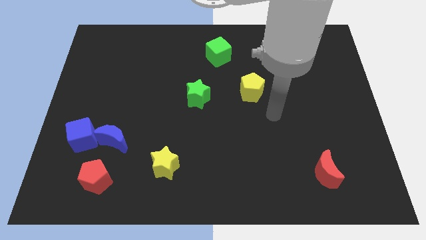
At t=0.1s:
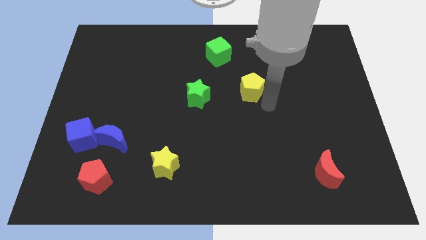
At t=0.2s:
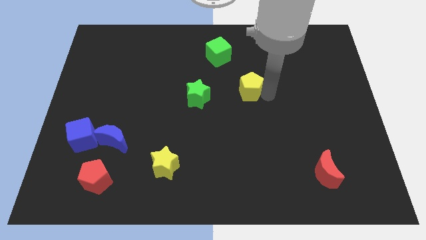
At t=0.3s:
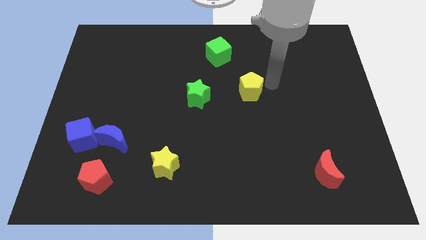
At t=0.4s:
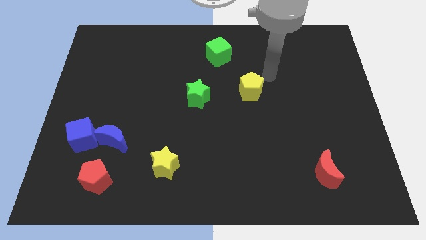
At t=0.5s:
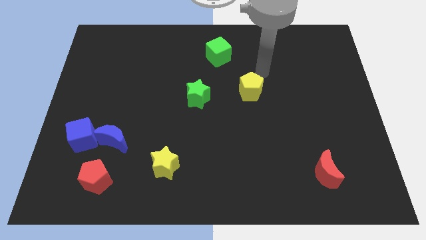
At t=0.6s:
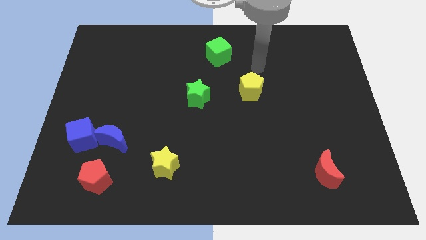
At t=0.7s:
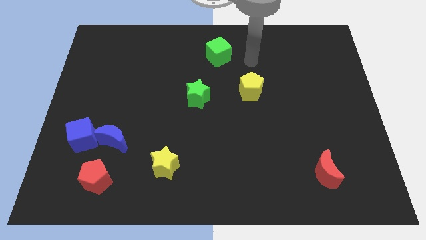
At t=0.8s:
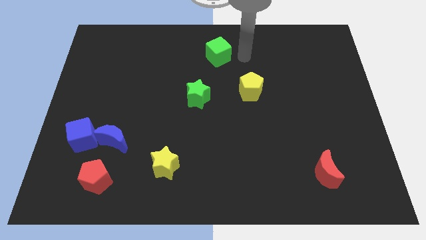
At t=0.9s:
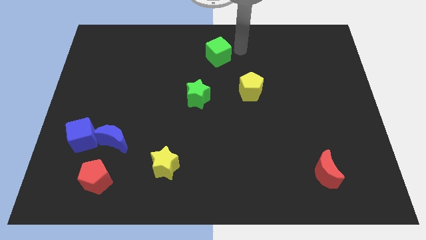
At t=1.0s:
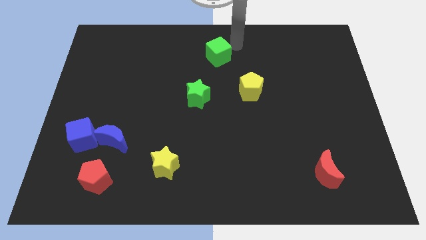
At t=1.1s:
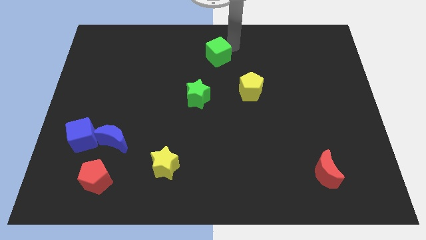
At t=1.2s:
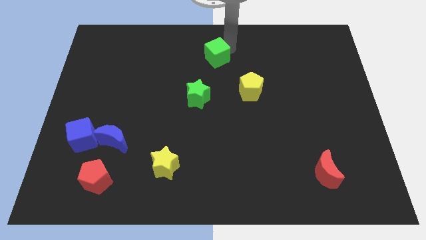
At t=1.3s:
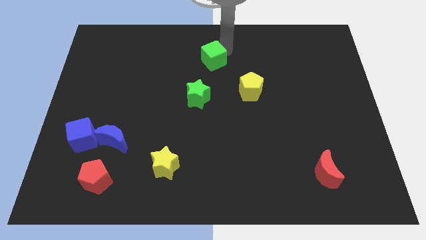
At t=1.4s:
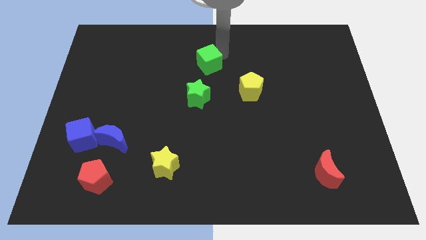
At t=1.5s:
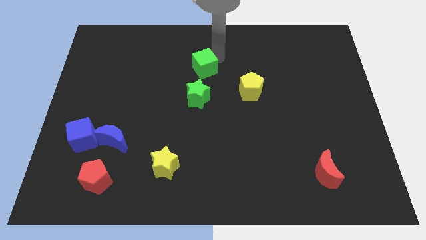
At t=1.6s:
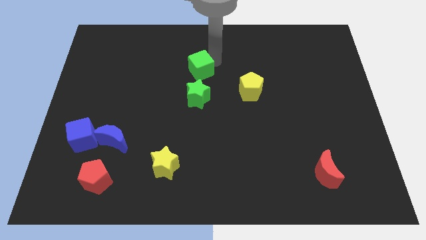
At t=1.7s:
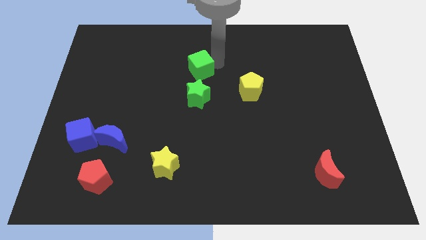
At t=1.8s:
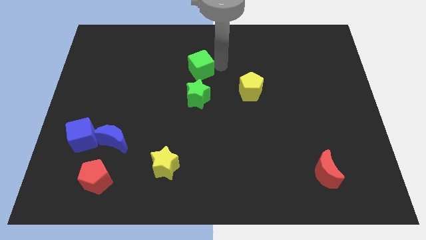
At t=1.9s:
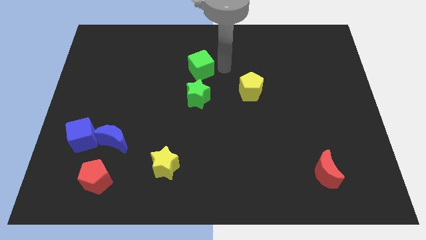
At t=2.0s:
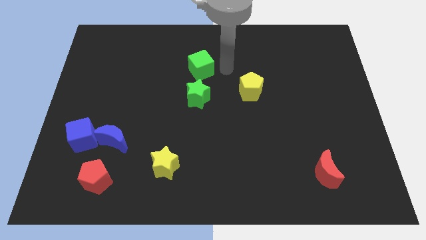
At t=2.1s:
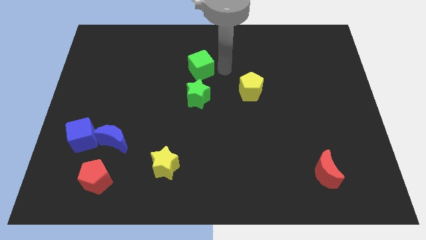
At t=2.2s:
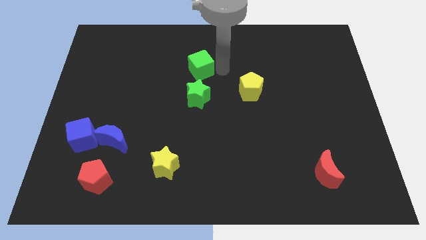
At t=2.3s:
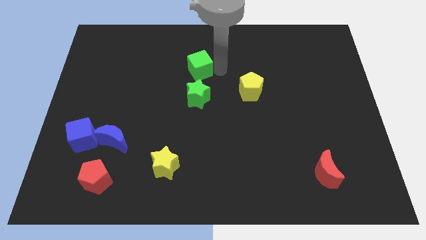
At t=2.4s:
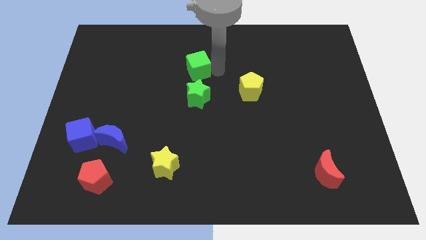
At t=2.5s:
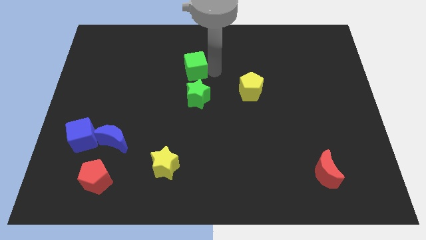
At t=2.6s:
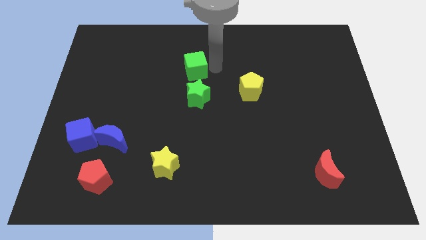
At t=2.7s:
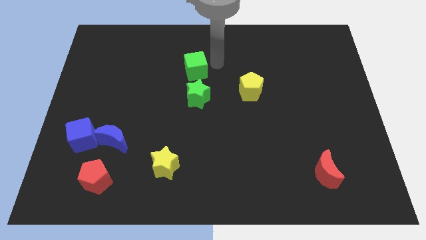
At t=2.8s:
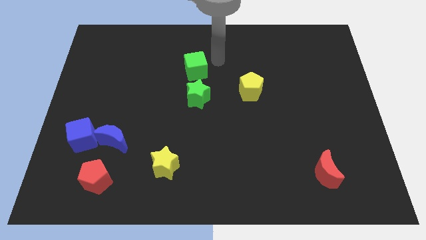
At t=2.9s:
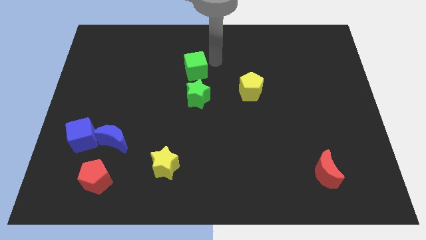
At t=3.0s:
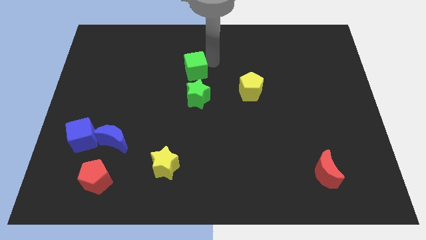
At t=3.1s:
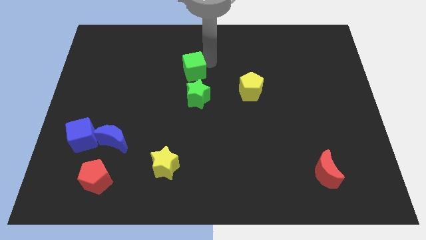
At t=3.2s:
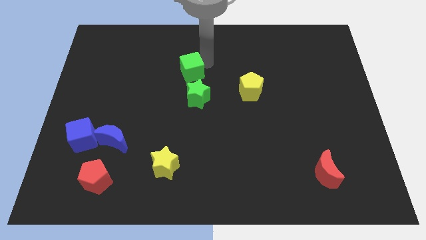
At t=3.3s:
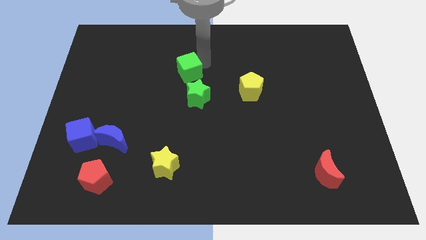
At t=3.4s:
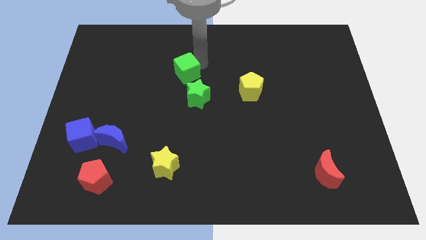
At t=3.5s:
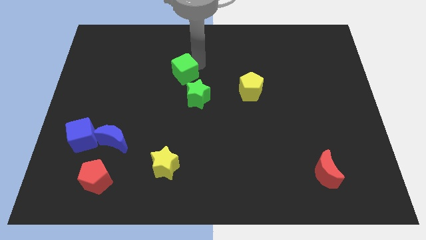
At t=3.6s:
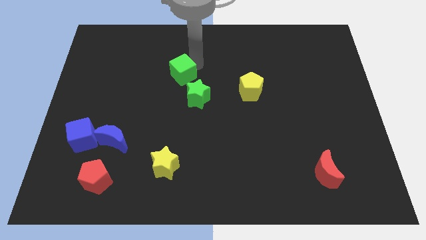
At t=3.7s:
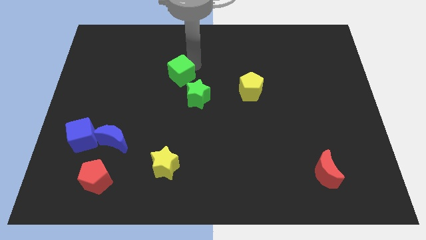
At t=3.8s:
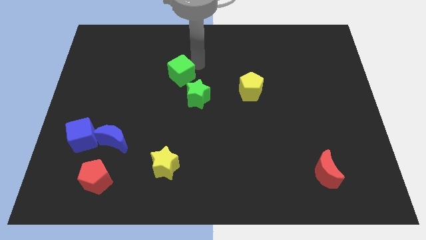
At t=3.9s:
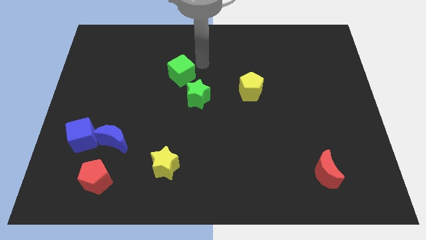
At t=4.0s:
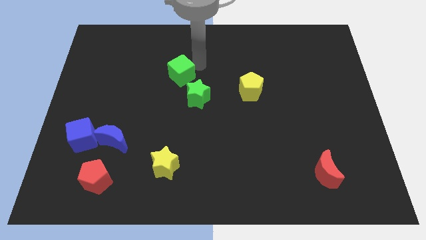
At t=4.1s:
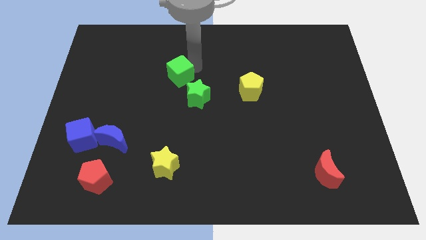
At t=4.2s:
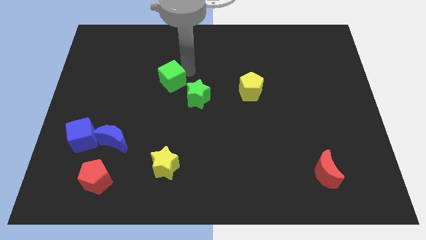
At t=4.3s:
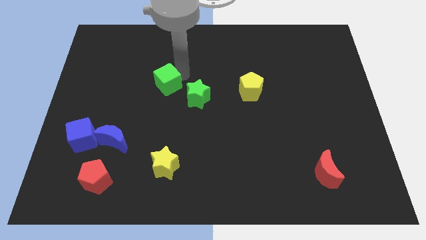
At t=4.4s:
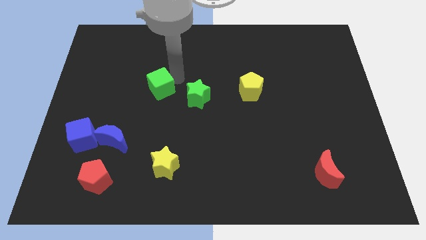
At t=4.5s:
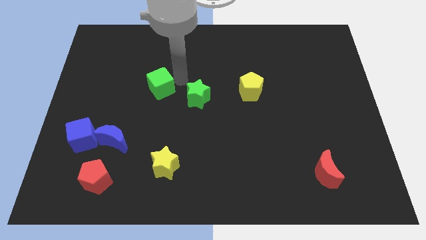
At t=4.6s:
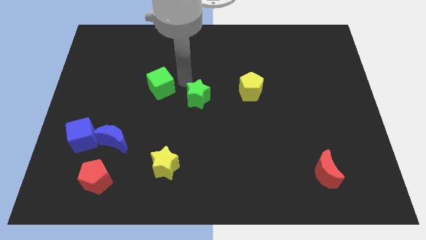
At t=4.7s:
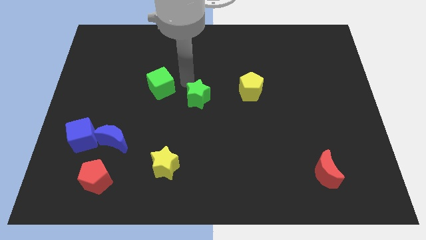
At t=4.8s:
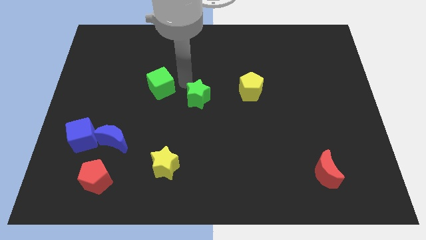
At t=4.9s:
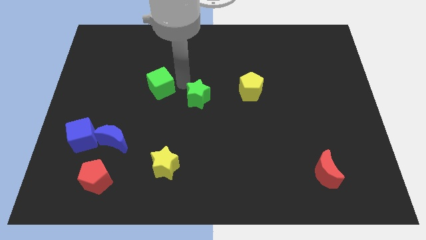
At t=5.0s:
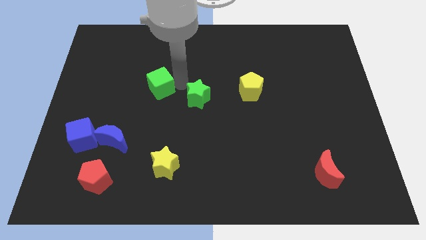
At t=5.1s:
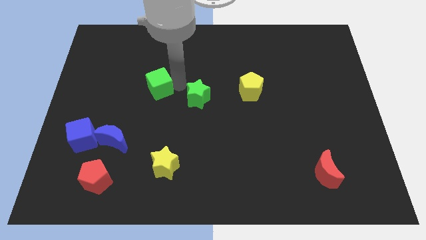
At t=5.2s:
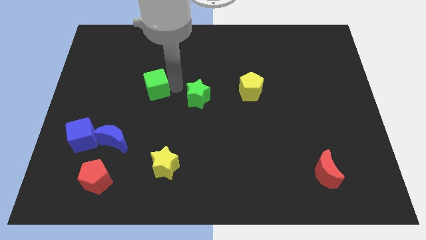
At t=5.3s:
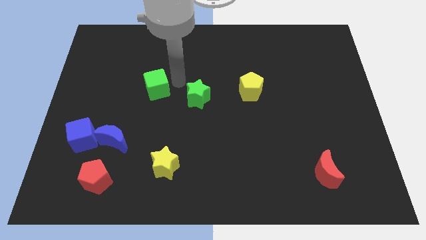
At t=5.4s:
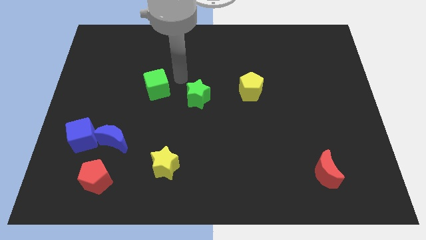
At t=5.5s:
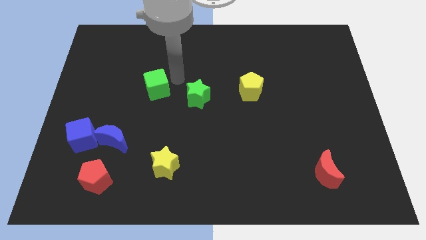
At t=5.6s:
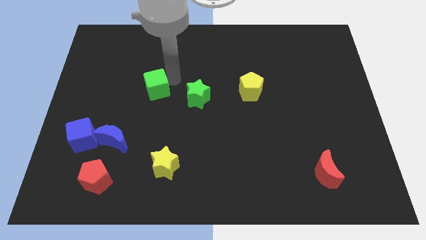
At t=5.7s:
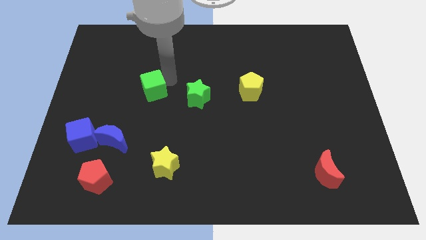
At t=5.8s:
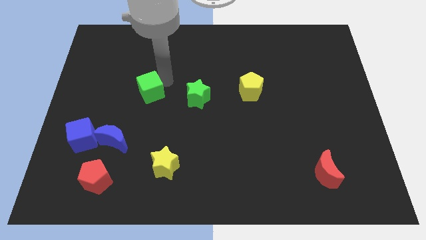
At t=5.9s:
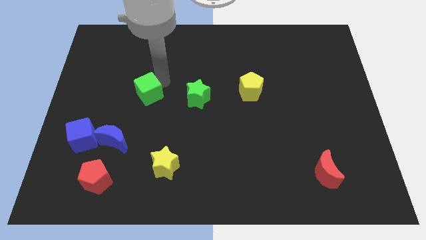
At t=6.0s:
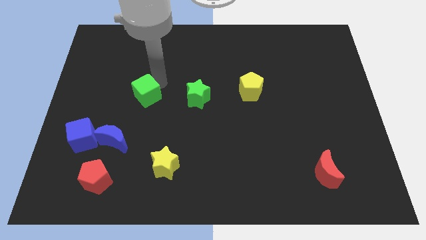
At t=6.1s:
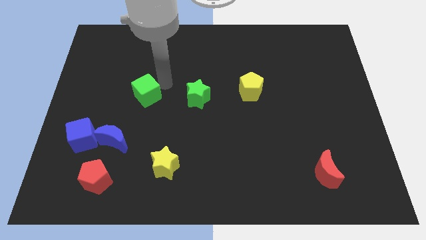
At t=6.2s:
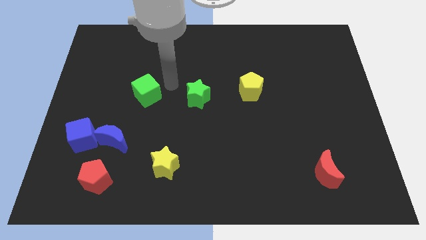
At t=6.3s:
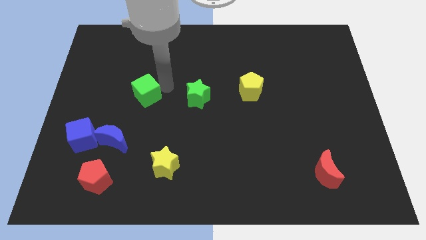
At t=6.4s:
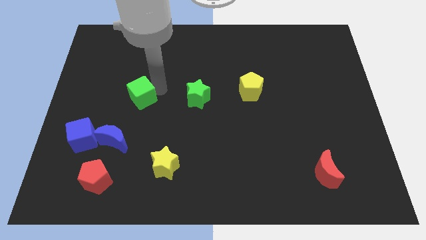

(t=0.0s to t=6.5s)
move the green cube to the top of the blue moon

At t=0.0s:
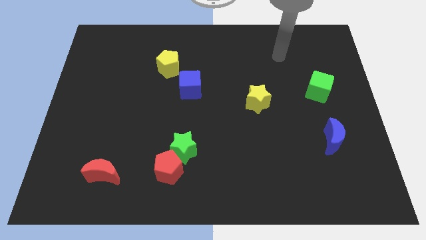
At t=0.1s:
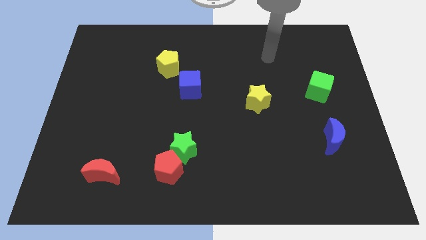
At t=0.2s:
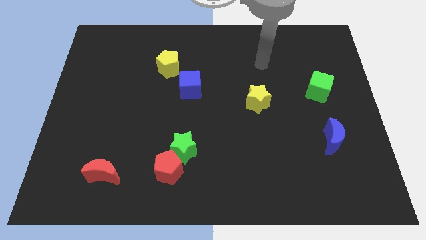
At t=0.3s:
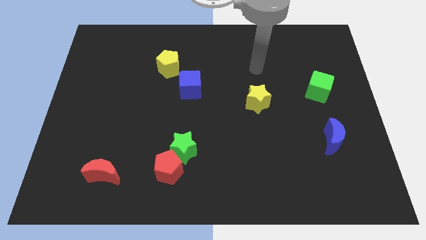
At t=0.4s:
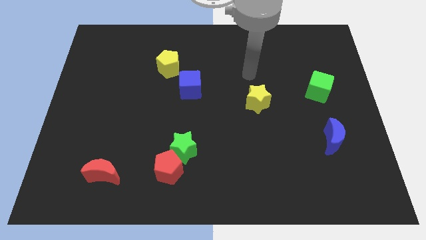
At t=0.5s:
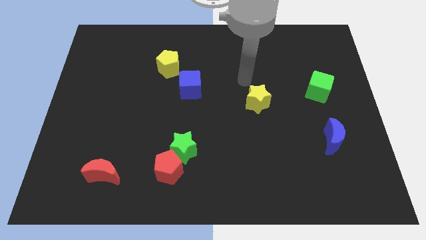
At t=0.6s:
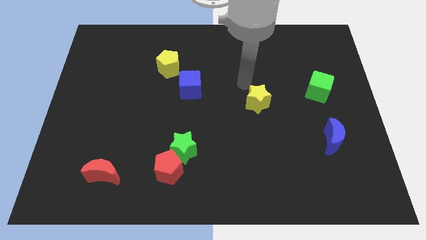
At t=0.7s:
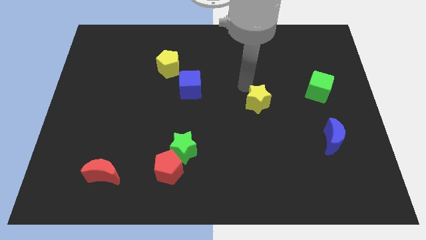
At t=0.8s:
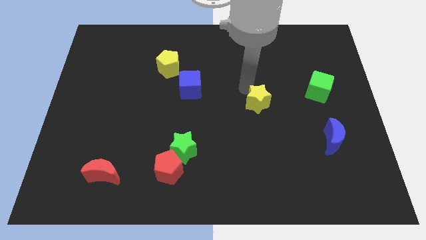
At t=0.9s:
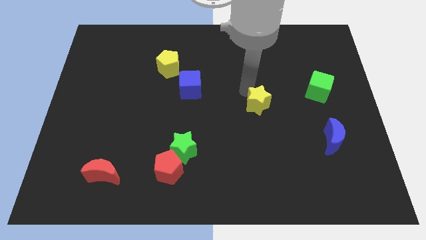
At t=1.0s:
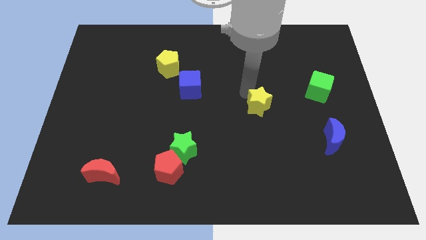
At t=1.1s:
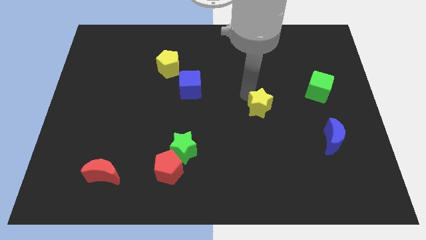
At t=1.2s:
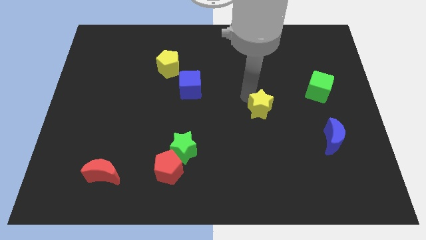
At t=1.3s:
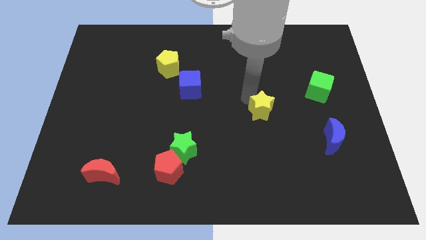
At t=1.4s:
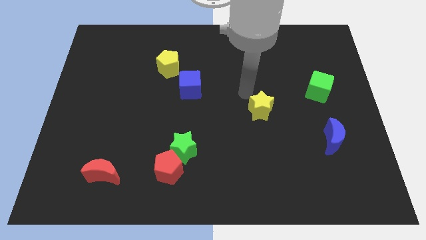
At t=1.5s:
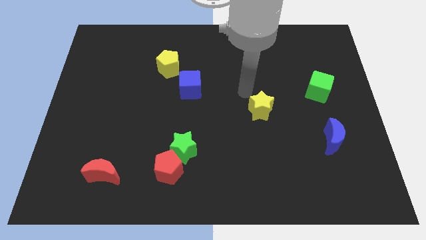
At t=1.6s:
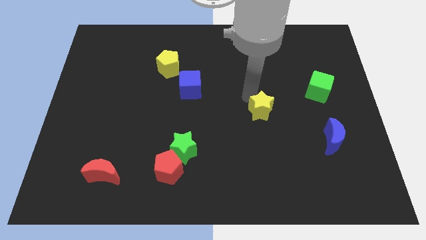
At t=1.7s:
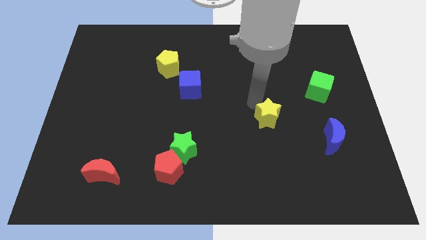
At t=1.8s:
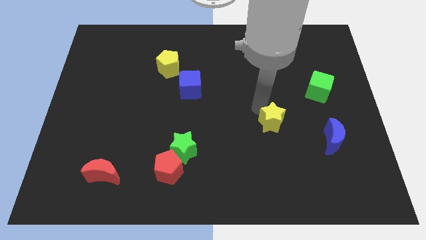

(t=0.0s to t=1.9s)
slide the yellow star just left of the blue moon
